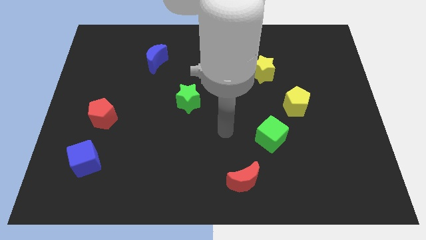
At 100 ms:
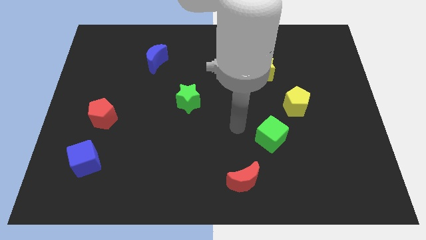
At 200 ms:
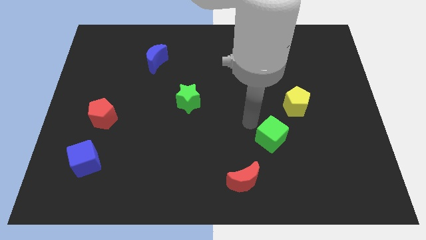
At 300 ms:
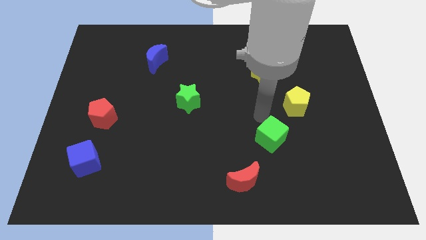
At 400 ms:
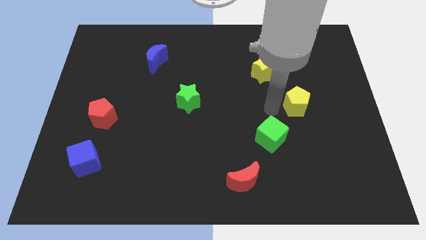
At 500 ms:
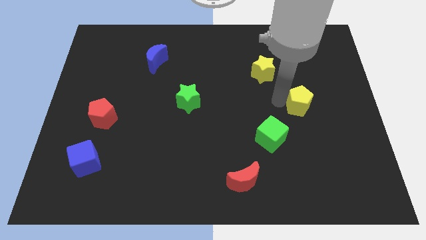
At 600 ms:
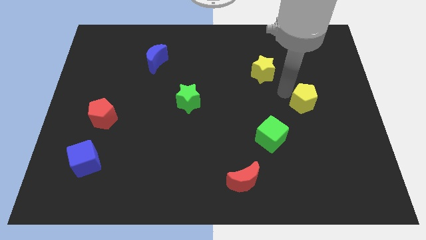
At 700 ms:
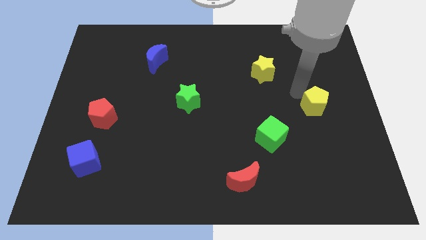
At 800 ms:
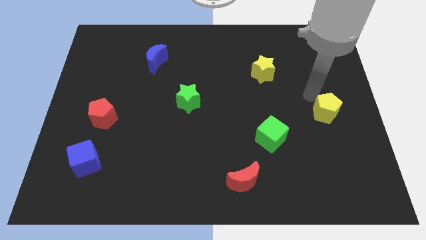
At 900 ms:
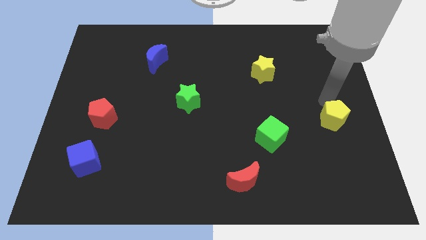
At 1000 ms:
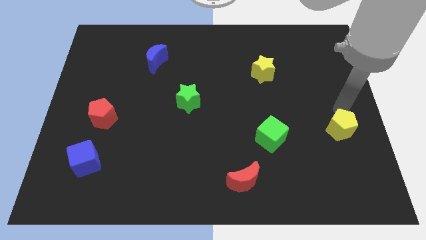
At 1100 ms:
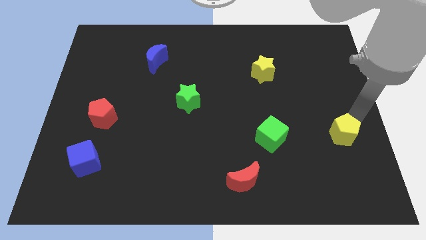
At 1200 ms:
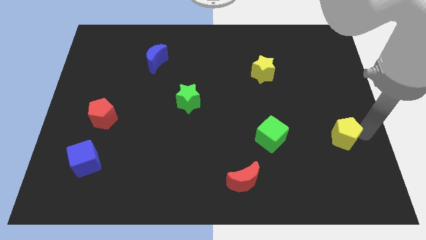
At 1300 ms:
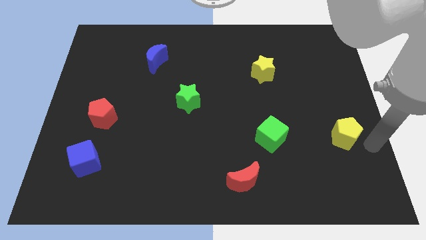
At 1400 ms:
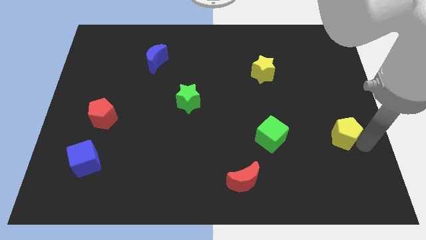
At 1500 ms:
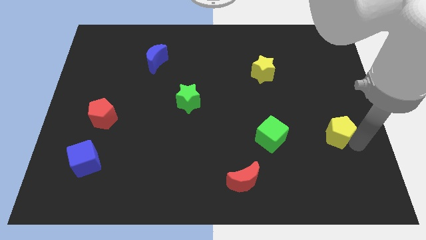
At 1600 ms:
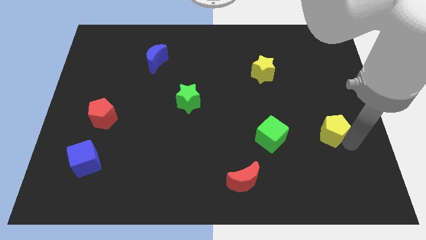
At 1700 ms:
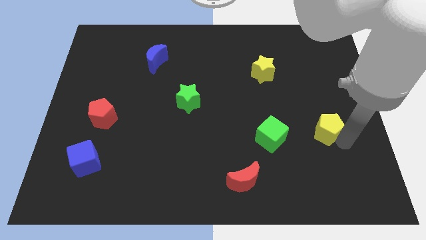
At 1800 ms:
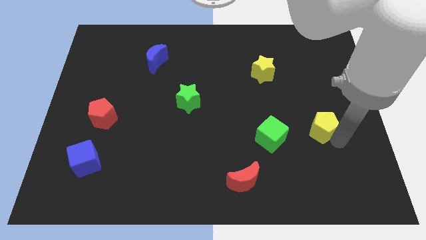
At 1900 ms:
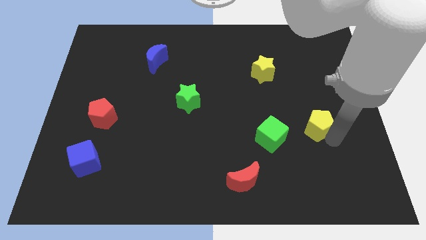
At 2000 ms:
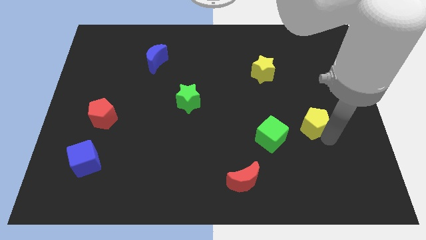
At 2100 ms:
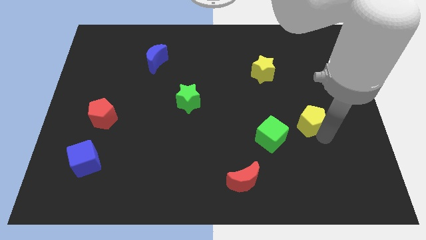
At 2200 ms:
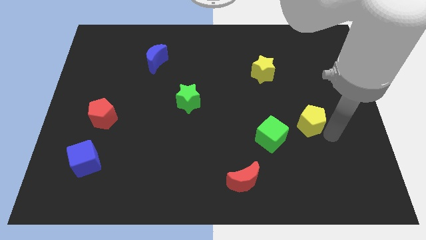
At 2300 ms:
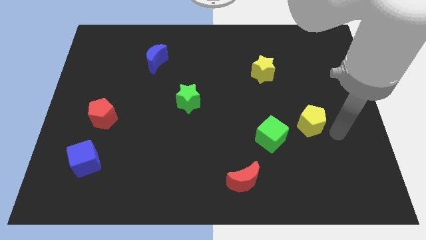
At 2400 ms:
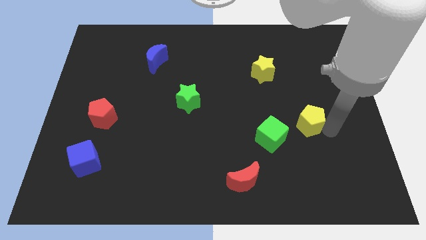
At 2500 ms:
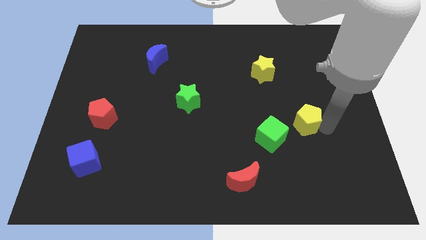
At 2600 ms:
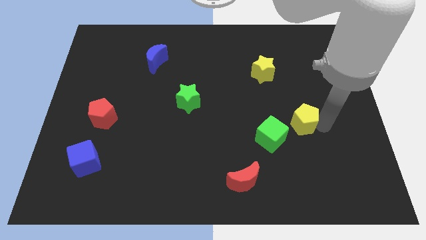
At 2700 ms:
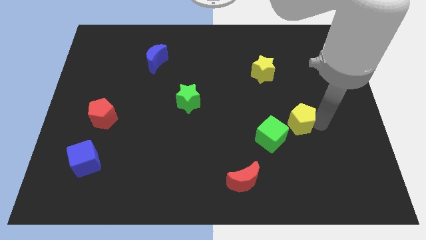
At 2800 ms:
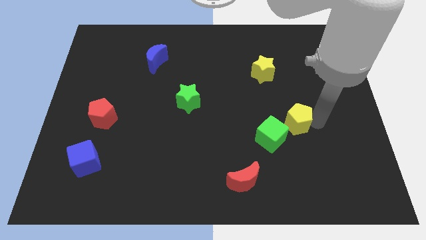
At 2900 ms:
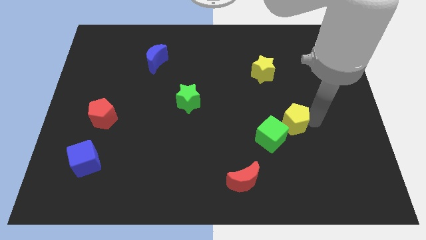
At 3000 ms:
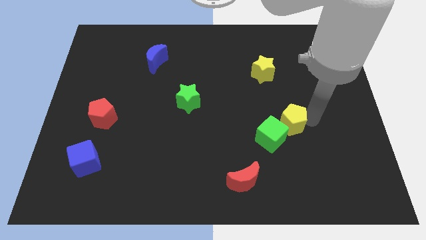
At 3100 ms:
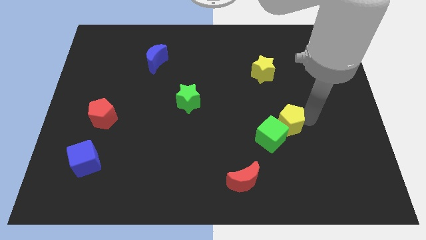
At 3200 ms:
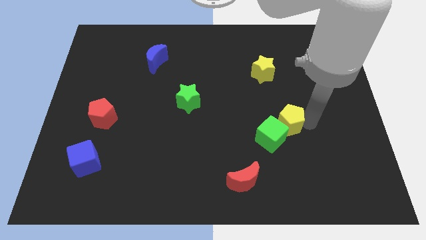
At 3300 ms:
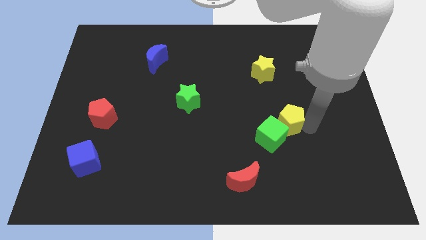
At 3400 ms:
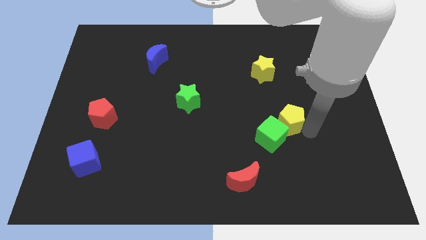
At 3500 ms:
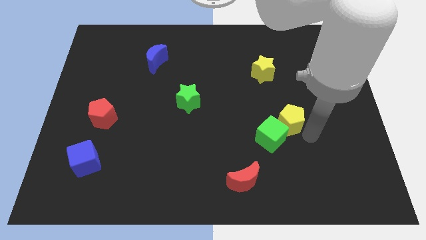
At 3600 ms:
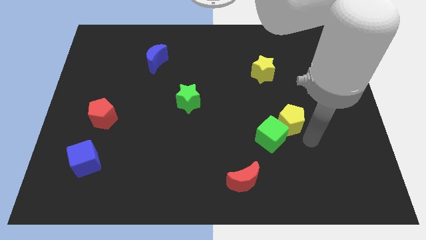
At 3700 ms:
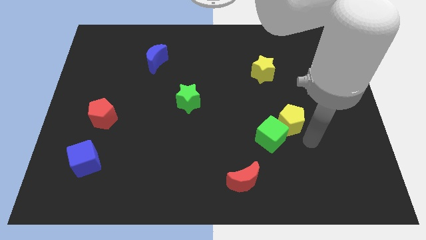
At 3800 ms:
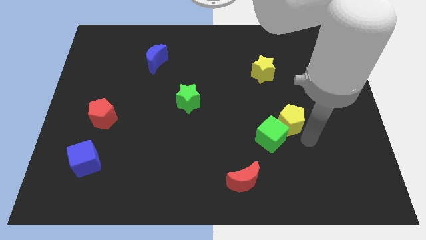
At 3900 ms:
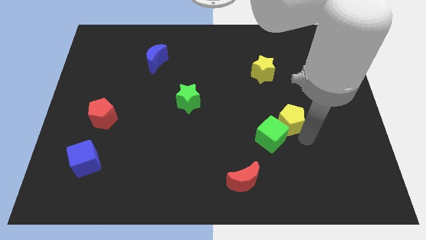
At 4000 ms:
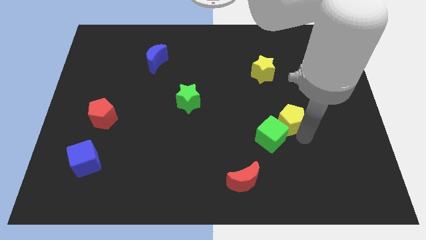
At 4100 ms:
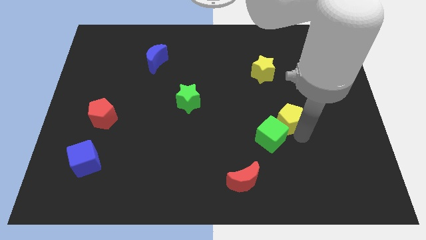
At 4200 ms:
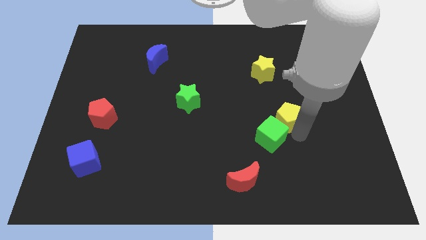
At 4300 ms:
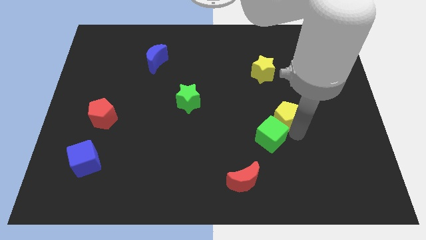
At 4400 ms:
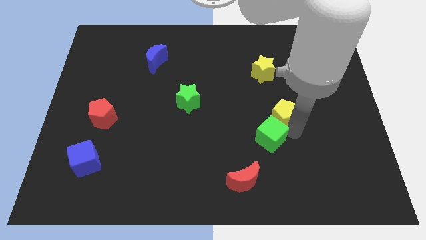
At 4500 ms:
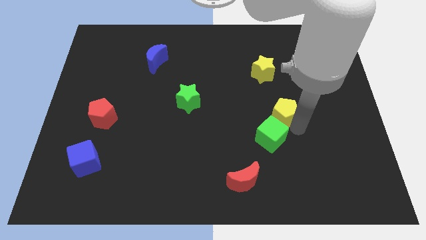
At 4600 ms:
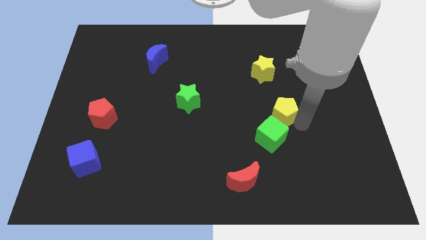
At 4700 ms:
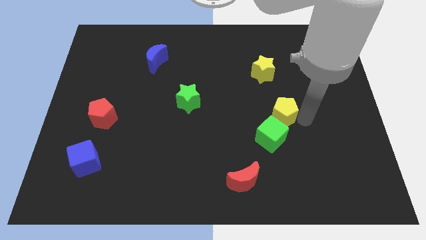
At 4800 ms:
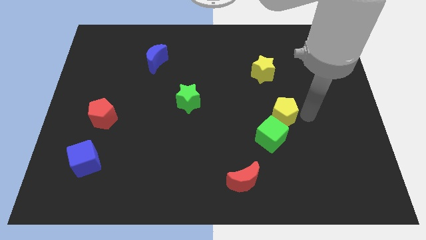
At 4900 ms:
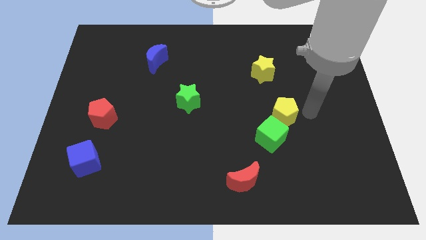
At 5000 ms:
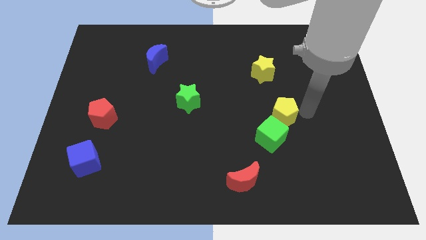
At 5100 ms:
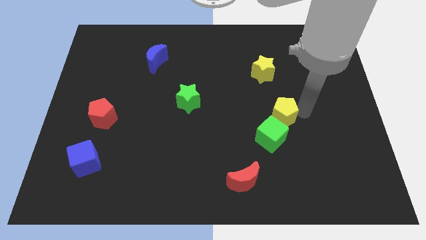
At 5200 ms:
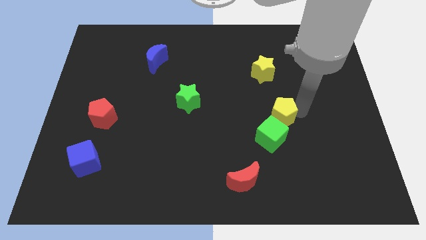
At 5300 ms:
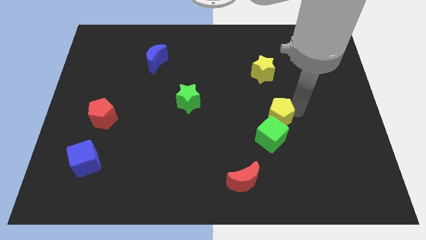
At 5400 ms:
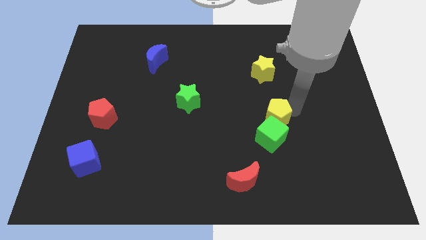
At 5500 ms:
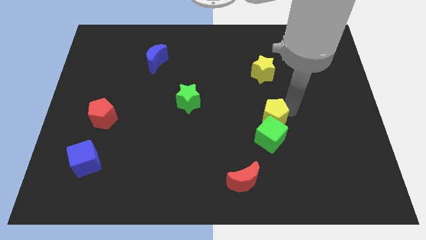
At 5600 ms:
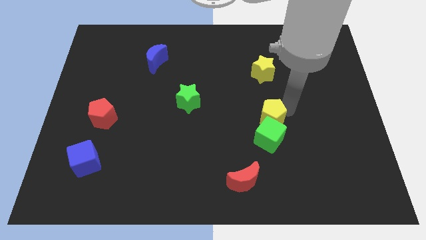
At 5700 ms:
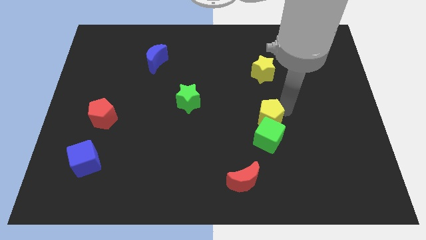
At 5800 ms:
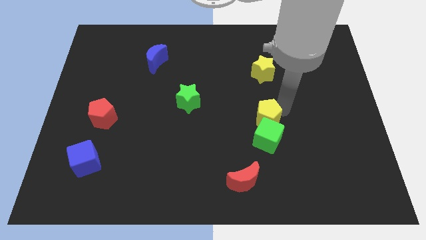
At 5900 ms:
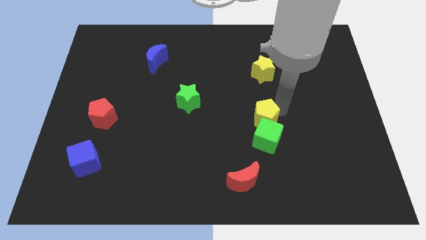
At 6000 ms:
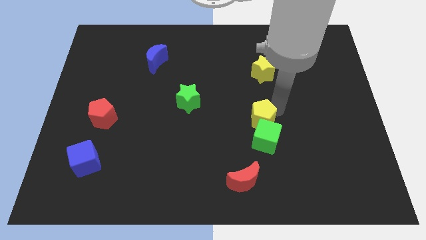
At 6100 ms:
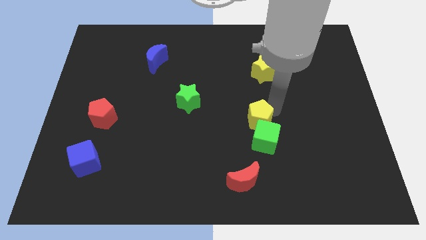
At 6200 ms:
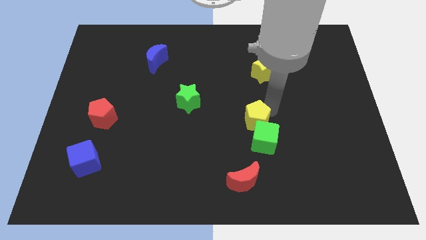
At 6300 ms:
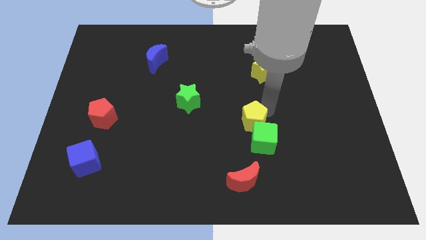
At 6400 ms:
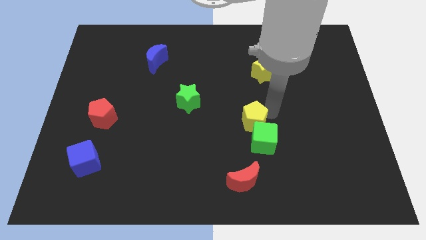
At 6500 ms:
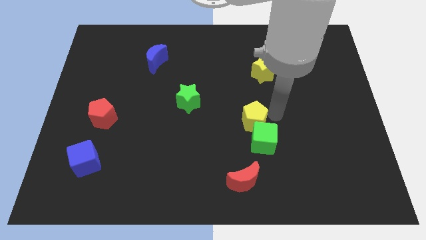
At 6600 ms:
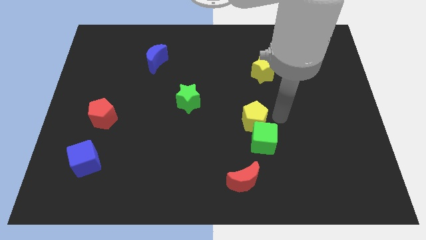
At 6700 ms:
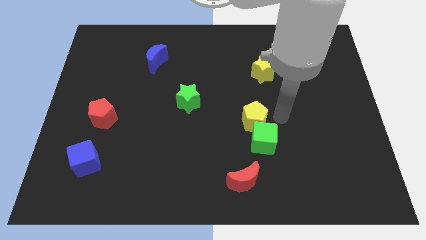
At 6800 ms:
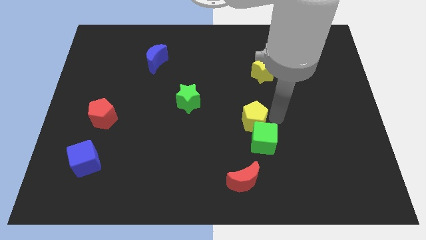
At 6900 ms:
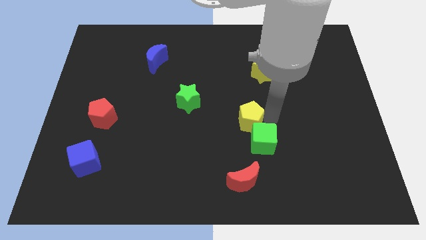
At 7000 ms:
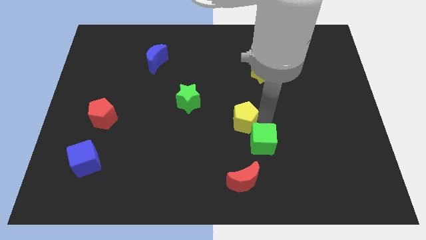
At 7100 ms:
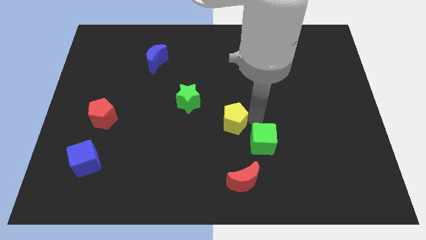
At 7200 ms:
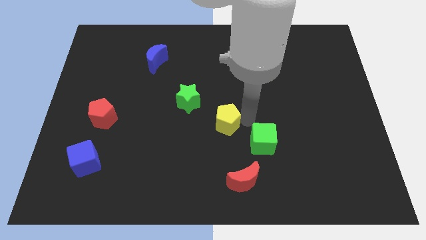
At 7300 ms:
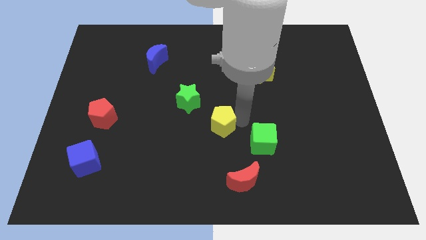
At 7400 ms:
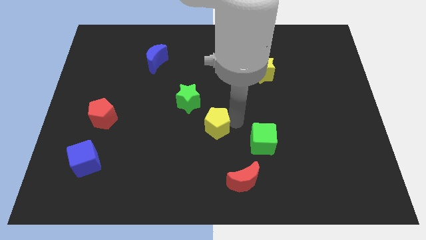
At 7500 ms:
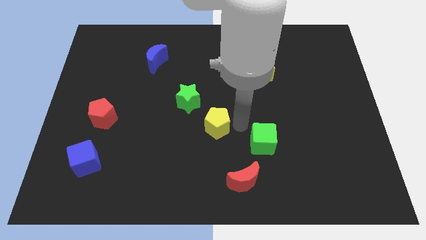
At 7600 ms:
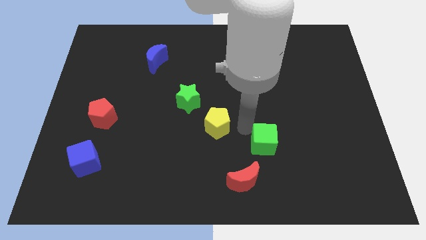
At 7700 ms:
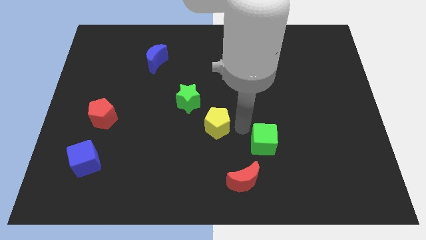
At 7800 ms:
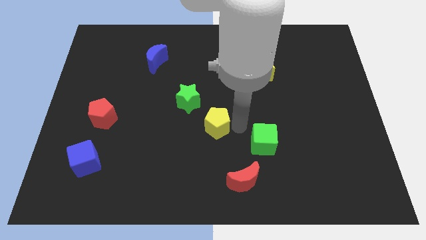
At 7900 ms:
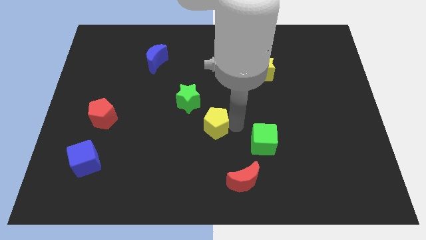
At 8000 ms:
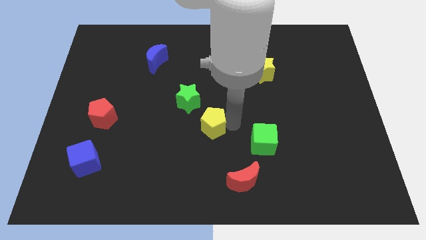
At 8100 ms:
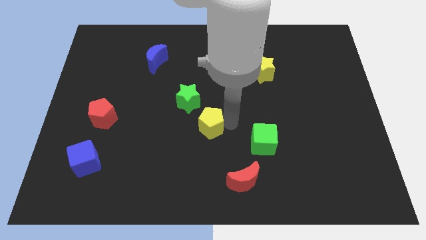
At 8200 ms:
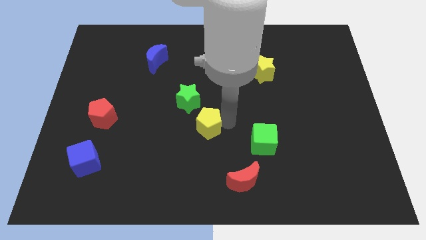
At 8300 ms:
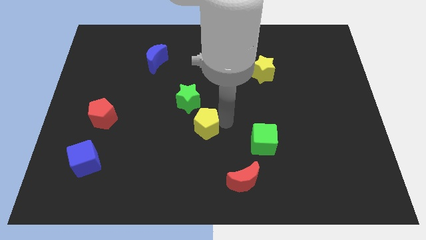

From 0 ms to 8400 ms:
move the yellow pentagon left
